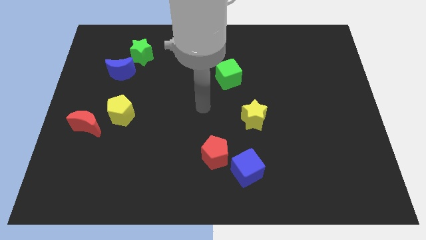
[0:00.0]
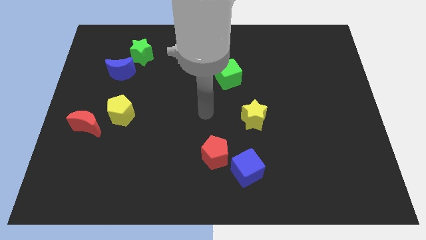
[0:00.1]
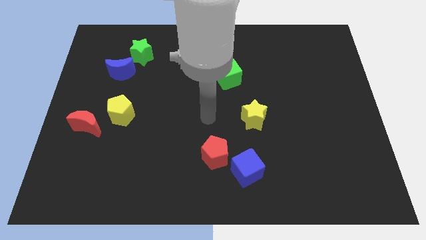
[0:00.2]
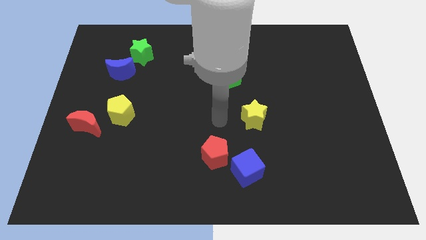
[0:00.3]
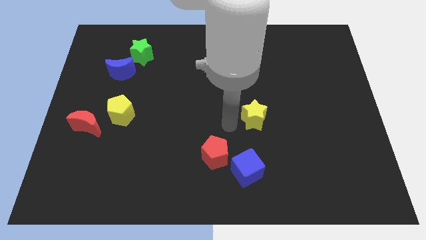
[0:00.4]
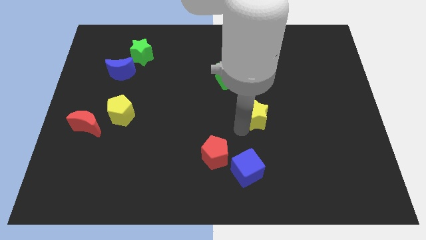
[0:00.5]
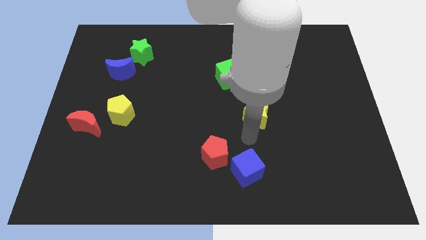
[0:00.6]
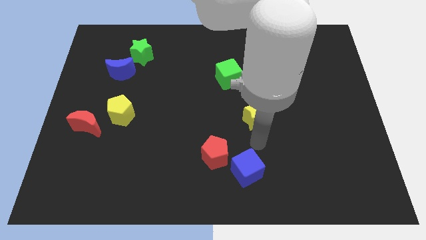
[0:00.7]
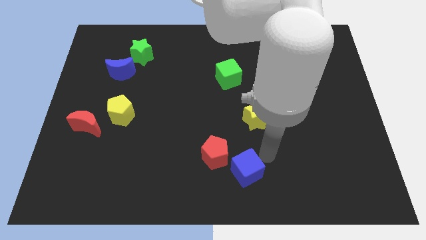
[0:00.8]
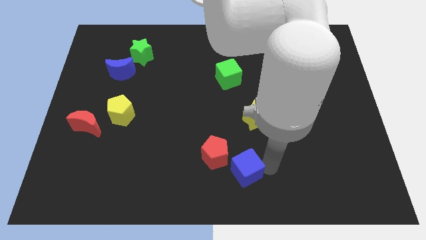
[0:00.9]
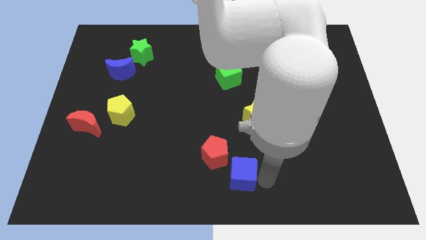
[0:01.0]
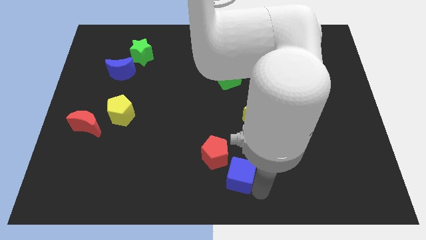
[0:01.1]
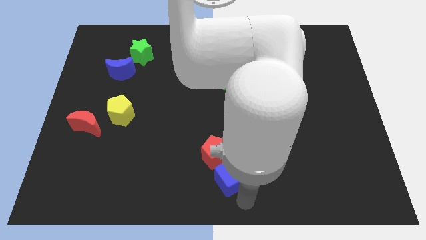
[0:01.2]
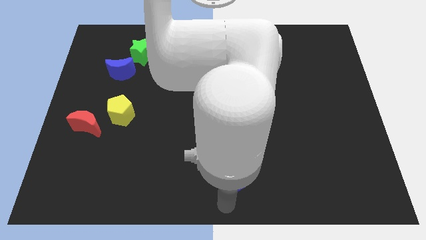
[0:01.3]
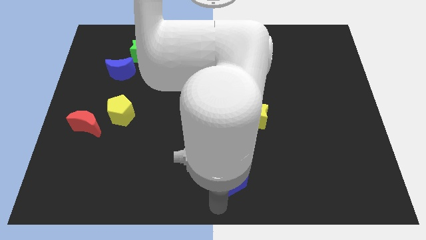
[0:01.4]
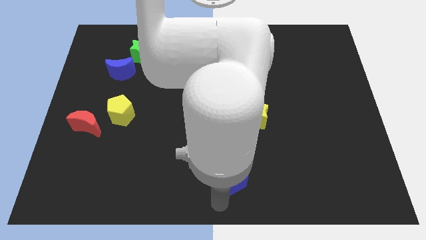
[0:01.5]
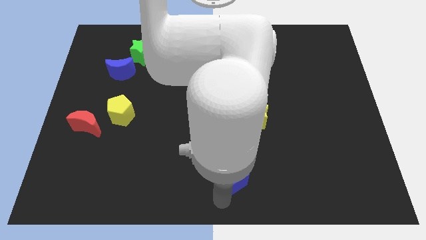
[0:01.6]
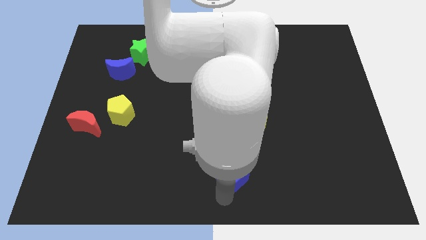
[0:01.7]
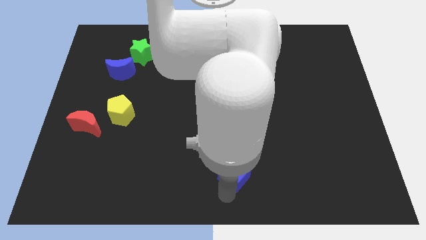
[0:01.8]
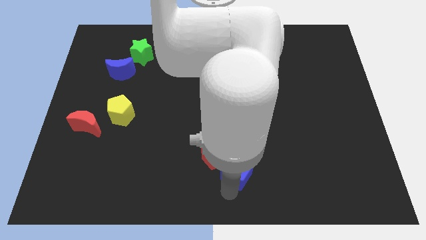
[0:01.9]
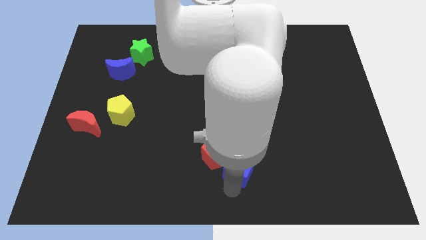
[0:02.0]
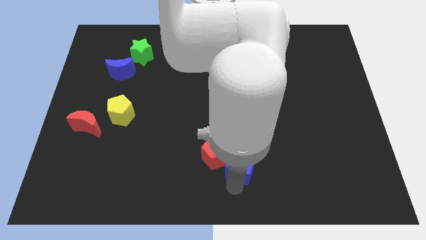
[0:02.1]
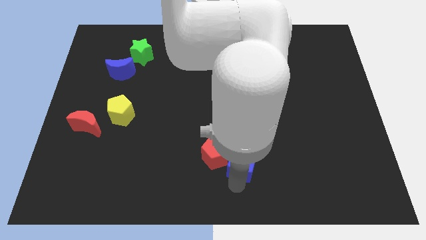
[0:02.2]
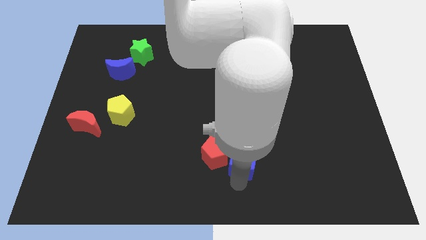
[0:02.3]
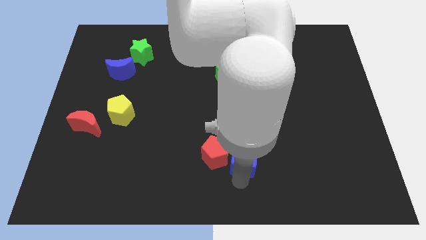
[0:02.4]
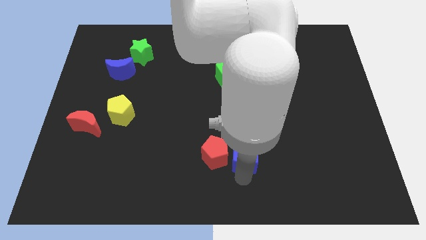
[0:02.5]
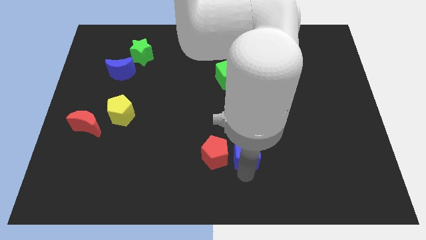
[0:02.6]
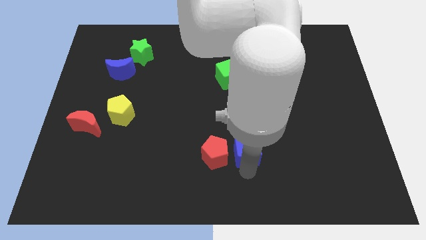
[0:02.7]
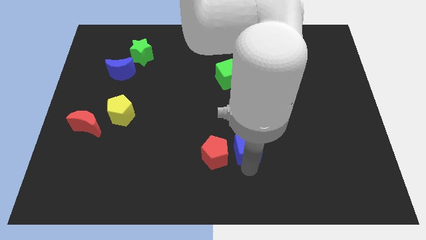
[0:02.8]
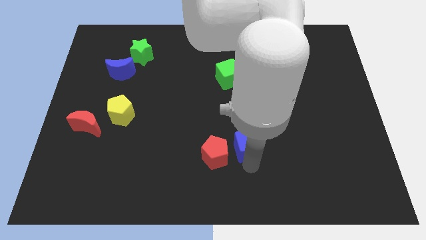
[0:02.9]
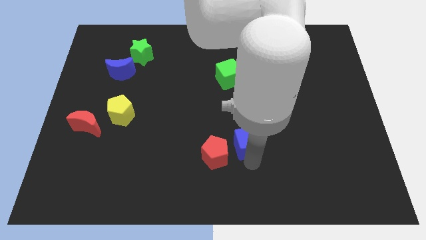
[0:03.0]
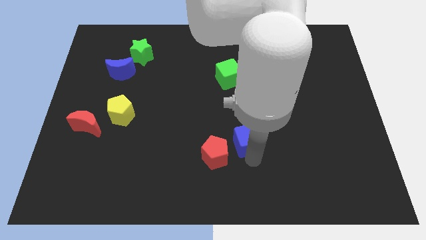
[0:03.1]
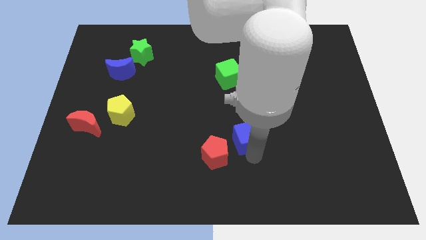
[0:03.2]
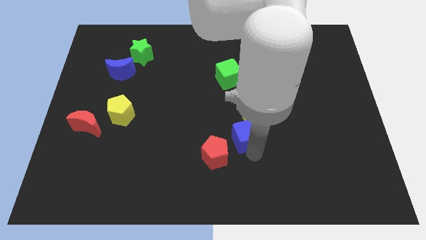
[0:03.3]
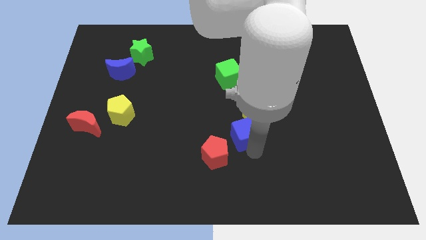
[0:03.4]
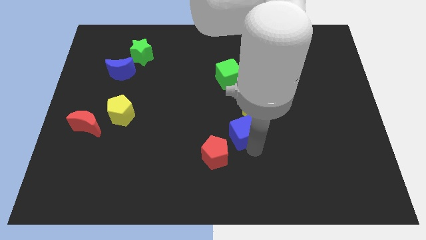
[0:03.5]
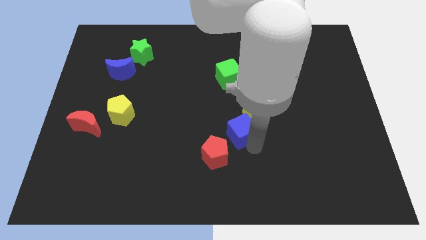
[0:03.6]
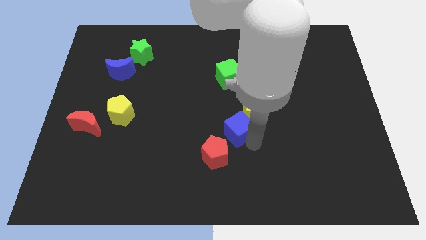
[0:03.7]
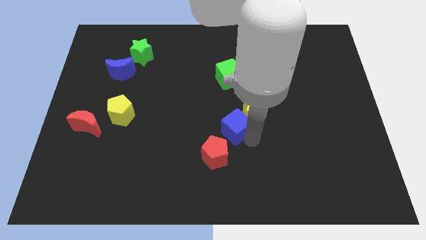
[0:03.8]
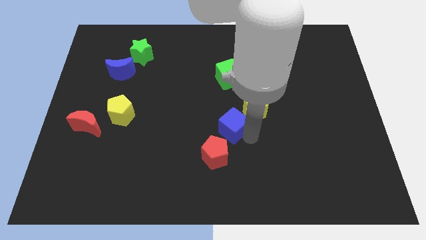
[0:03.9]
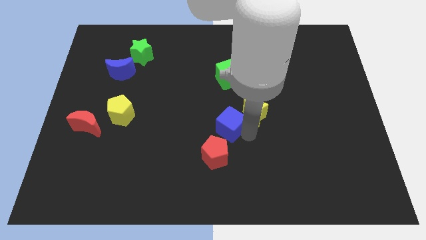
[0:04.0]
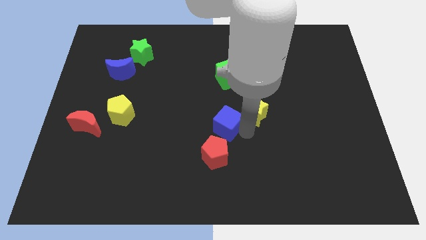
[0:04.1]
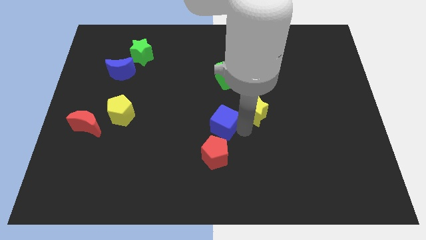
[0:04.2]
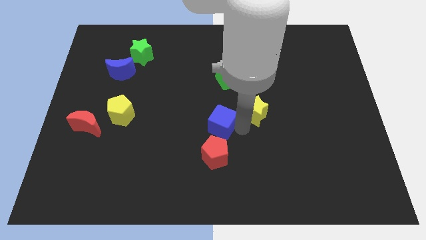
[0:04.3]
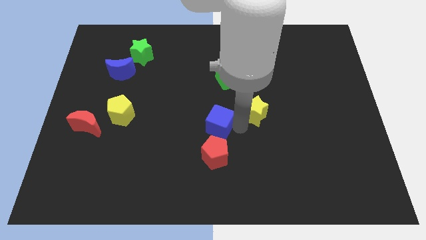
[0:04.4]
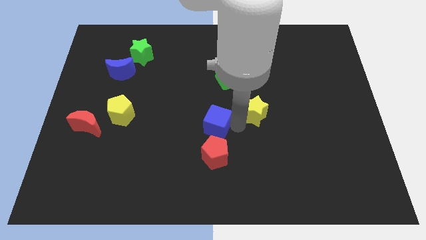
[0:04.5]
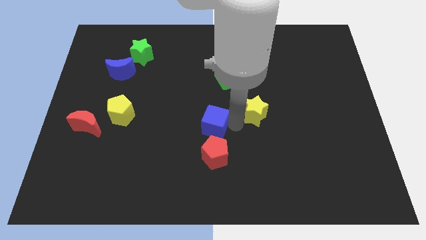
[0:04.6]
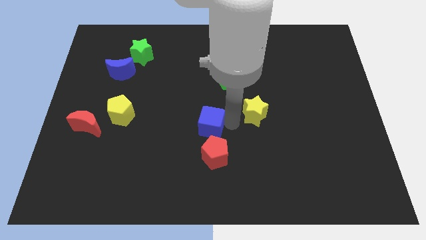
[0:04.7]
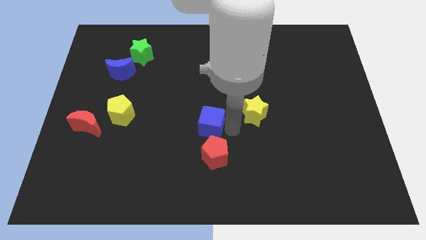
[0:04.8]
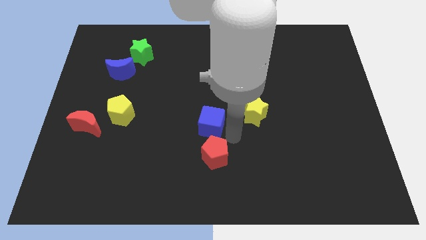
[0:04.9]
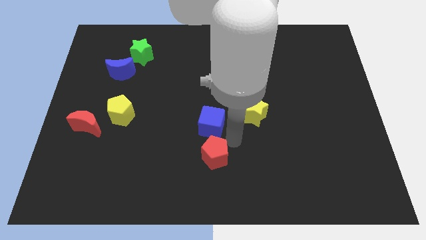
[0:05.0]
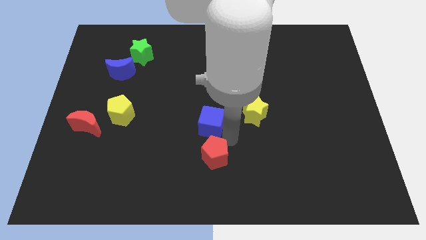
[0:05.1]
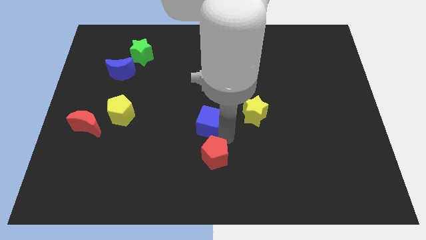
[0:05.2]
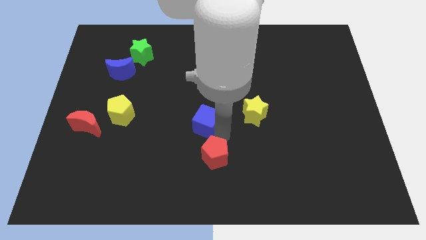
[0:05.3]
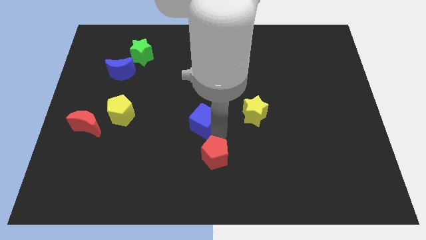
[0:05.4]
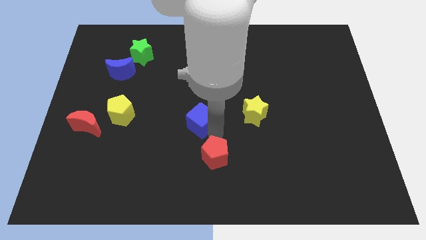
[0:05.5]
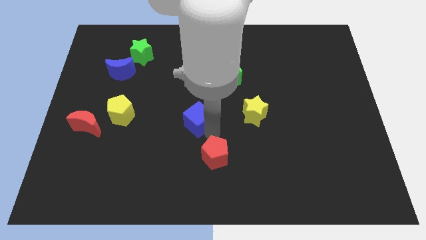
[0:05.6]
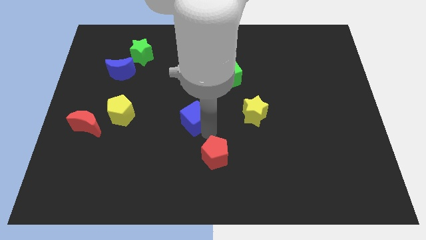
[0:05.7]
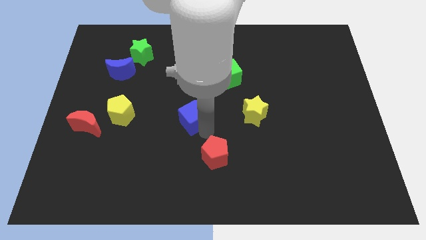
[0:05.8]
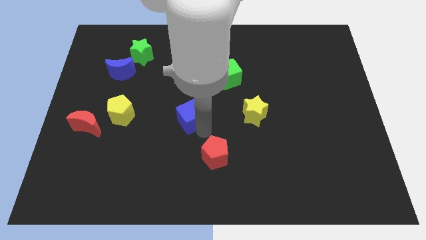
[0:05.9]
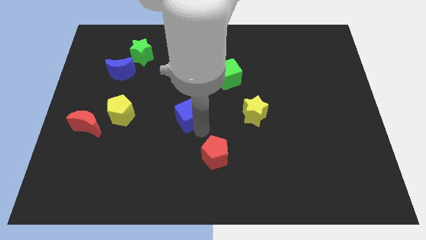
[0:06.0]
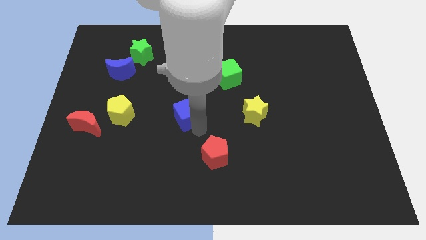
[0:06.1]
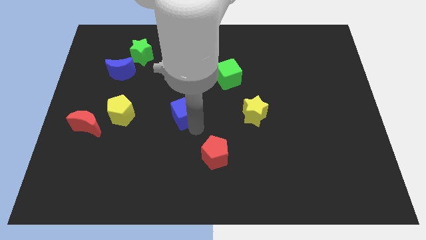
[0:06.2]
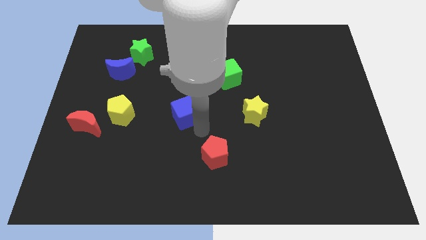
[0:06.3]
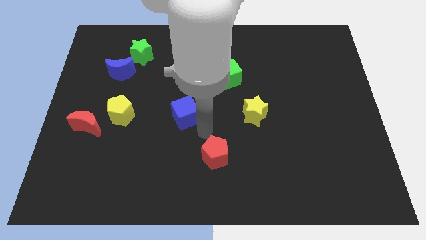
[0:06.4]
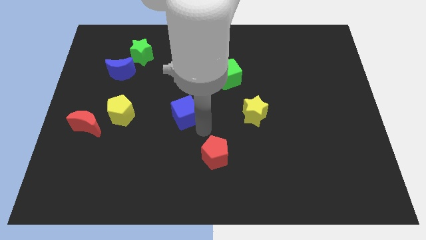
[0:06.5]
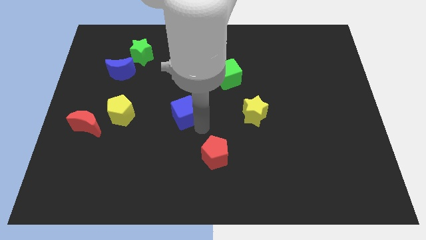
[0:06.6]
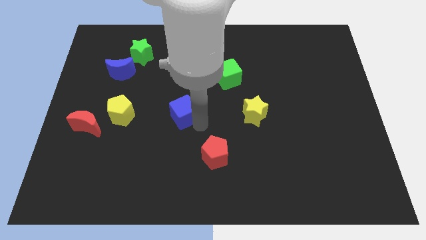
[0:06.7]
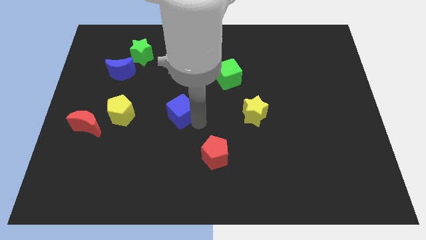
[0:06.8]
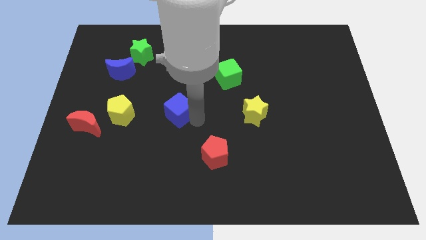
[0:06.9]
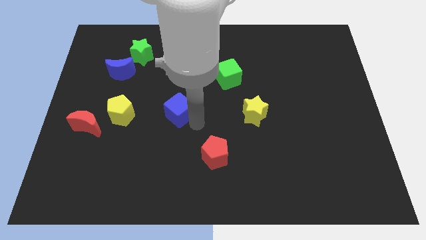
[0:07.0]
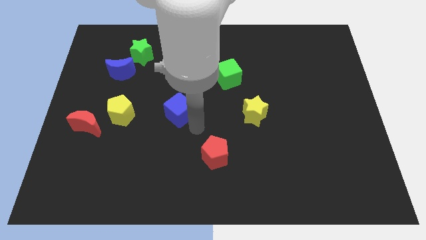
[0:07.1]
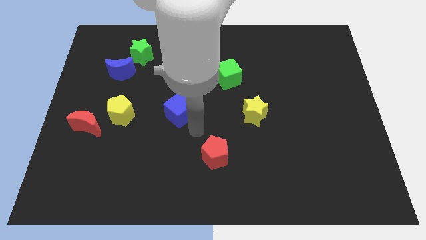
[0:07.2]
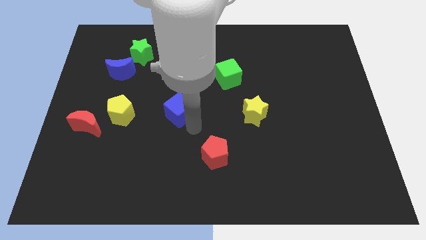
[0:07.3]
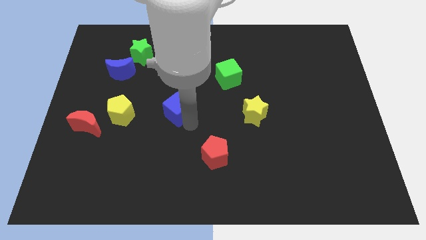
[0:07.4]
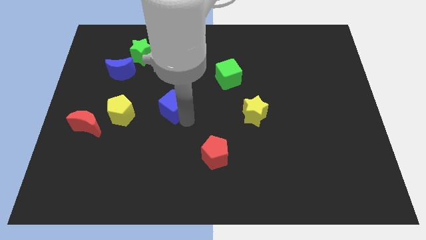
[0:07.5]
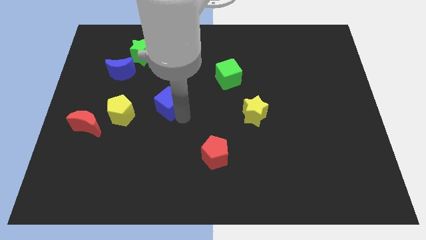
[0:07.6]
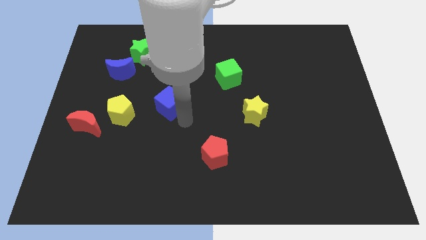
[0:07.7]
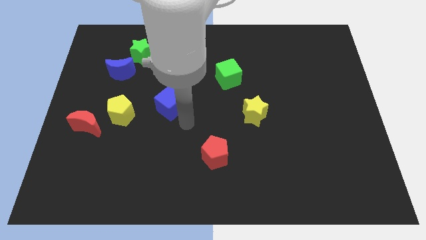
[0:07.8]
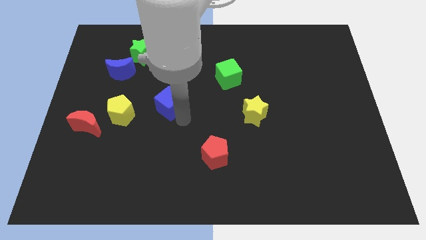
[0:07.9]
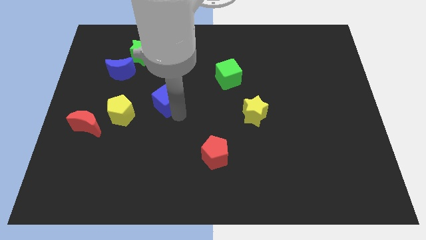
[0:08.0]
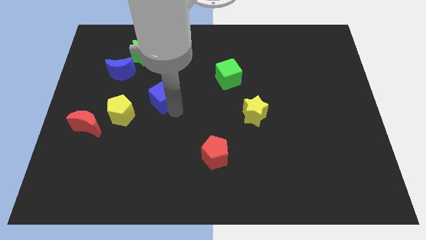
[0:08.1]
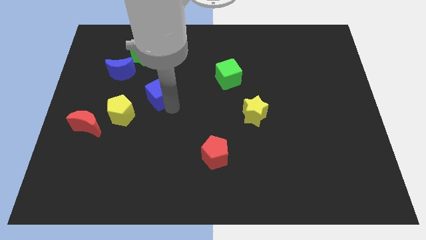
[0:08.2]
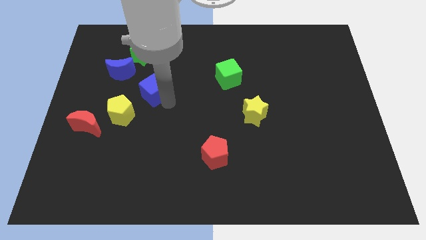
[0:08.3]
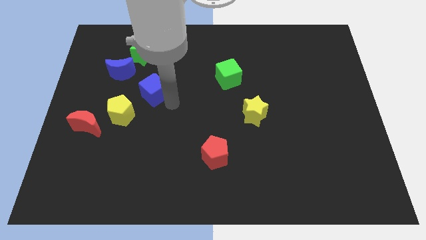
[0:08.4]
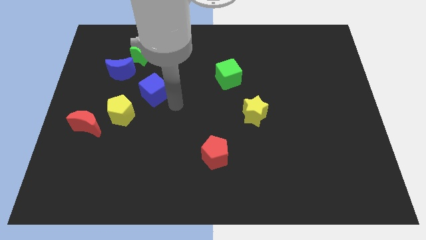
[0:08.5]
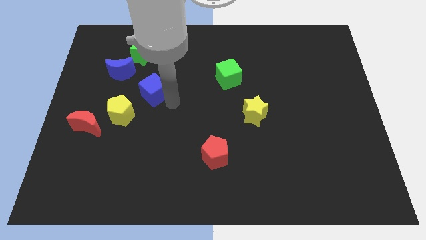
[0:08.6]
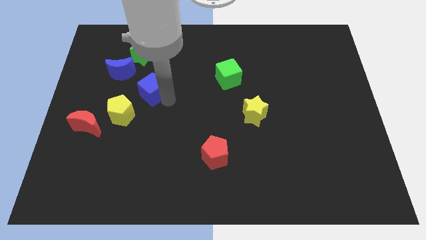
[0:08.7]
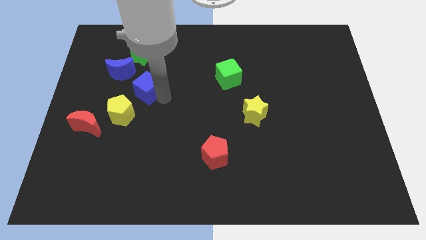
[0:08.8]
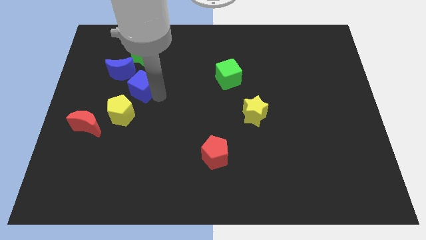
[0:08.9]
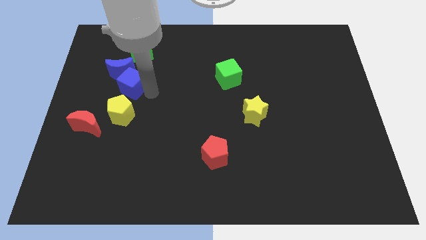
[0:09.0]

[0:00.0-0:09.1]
push the blue cube next to the blue moon
